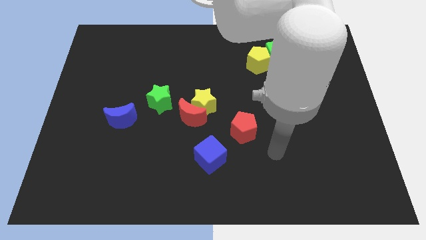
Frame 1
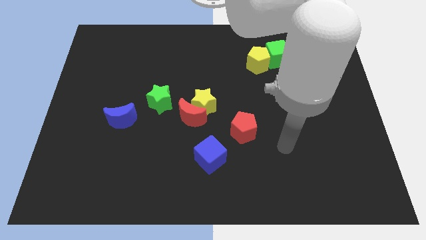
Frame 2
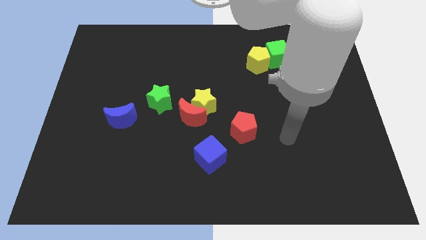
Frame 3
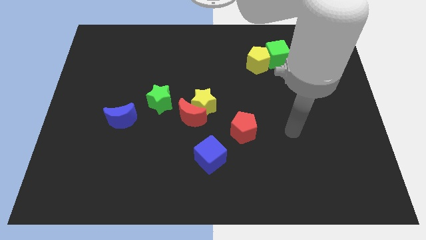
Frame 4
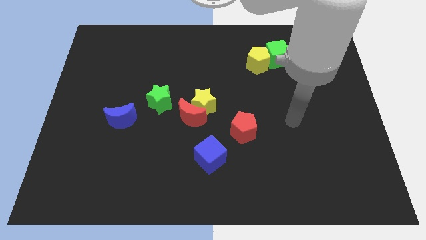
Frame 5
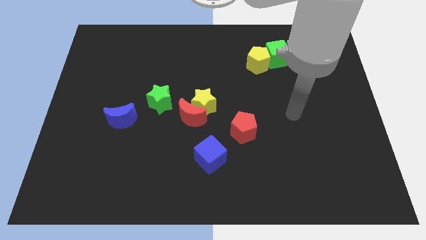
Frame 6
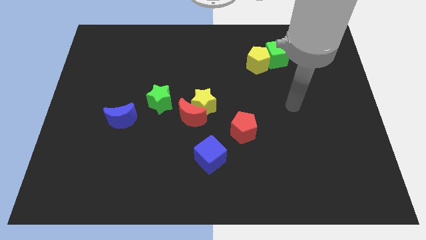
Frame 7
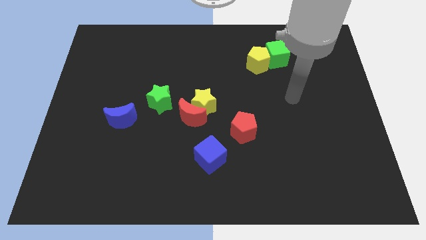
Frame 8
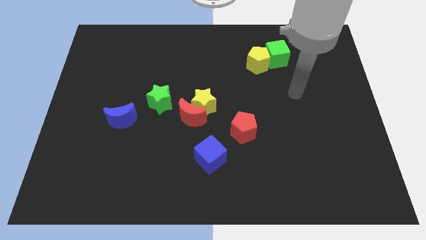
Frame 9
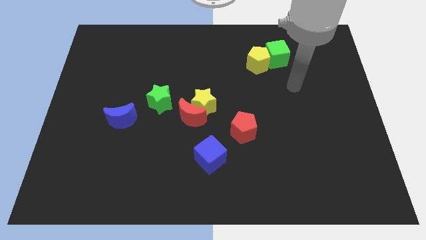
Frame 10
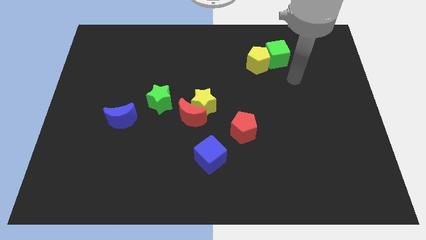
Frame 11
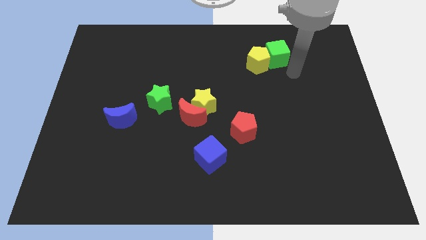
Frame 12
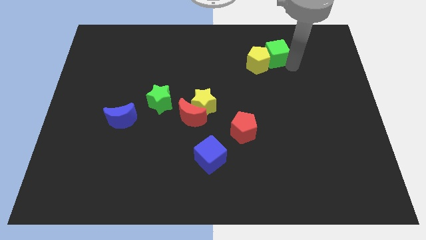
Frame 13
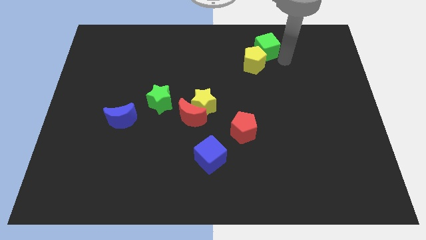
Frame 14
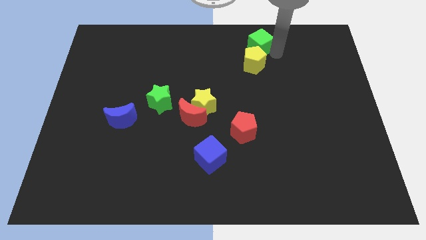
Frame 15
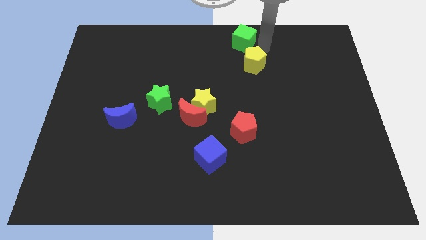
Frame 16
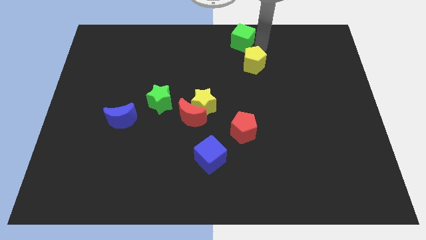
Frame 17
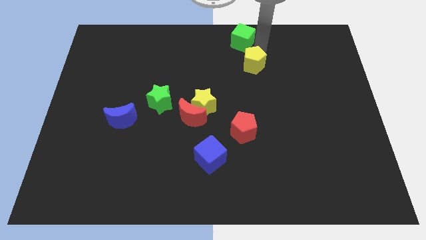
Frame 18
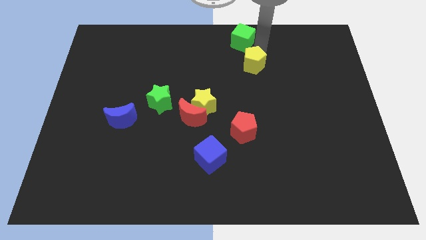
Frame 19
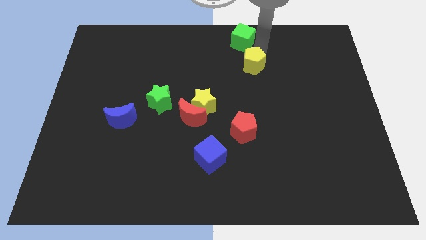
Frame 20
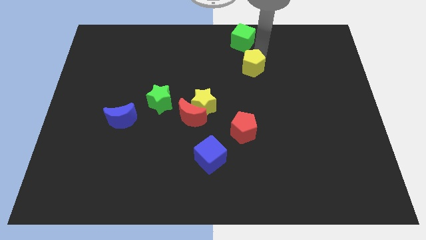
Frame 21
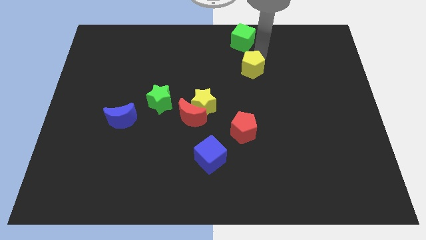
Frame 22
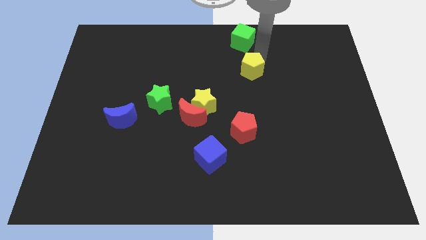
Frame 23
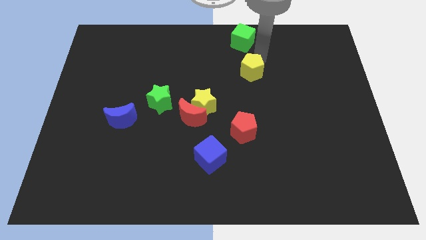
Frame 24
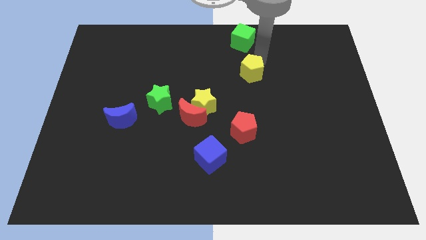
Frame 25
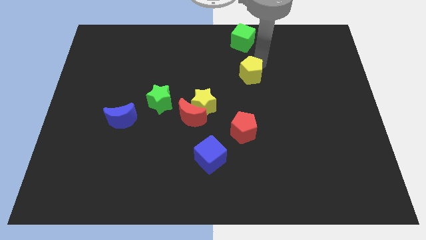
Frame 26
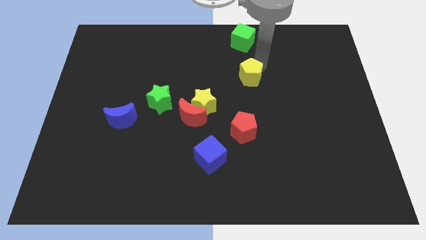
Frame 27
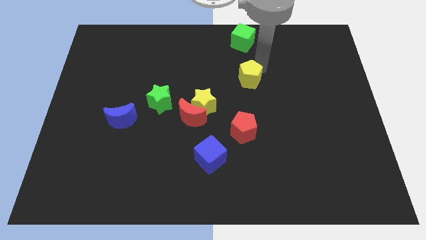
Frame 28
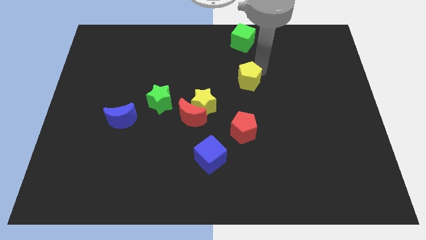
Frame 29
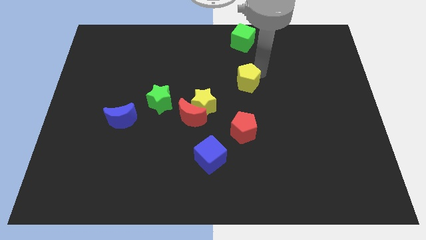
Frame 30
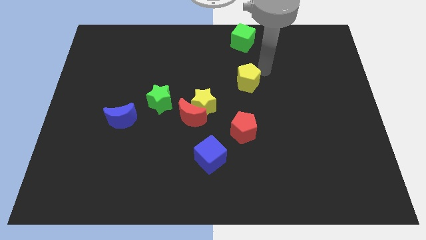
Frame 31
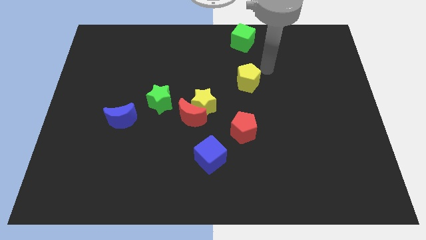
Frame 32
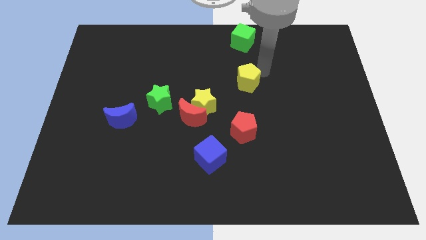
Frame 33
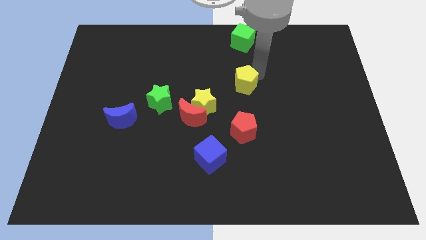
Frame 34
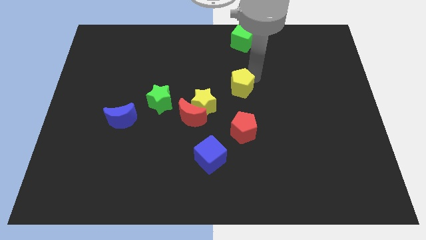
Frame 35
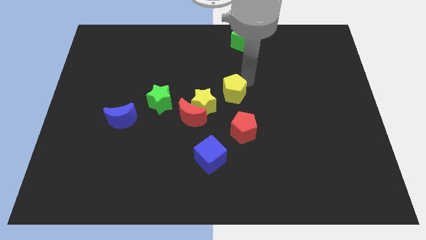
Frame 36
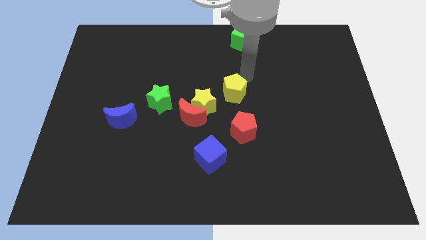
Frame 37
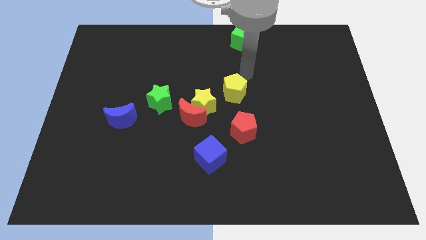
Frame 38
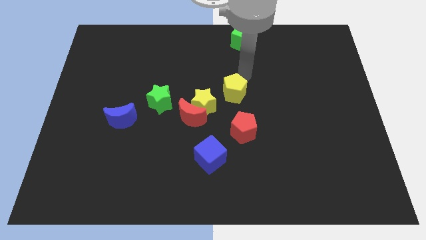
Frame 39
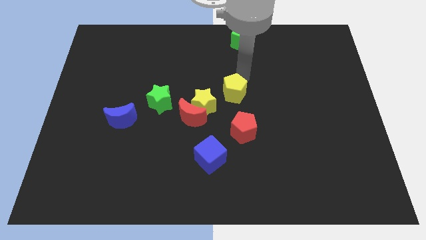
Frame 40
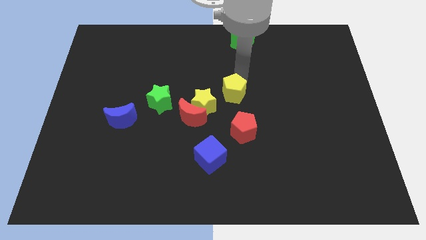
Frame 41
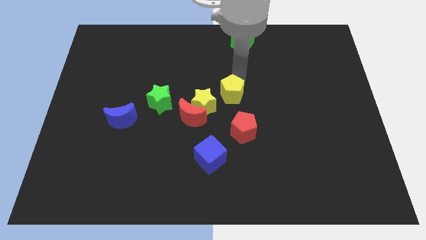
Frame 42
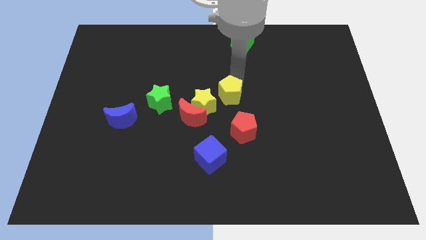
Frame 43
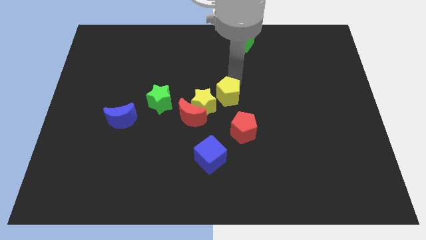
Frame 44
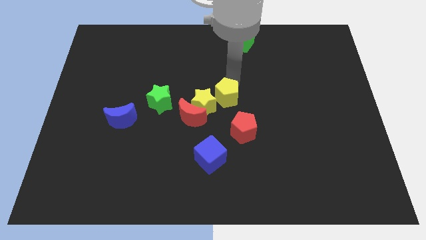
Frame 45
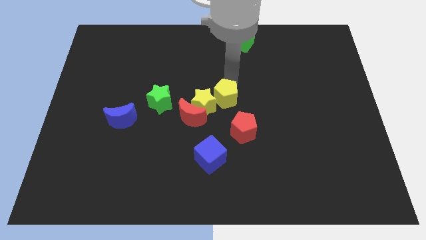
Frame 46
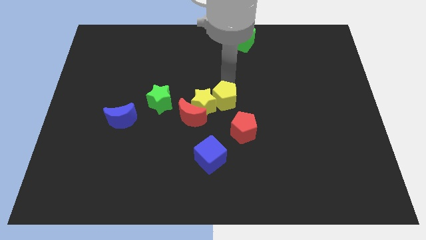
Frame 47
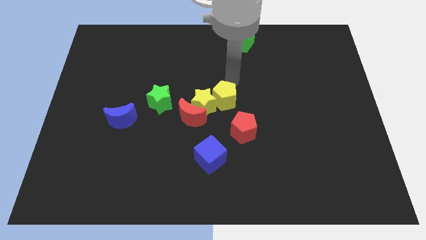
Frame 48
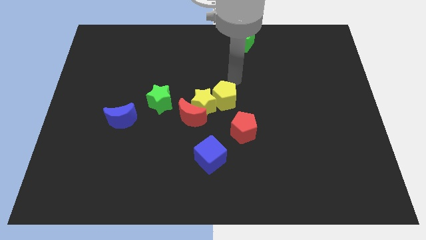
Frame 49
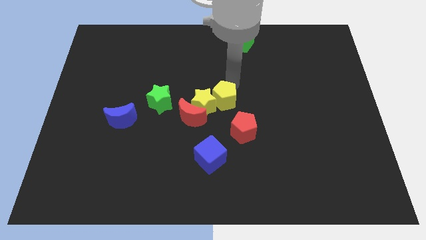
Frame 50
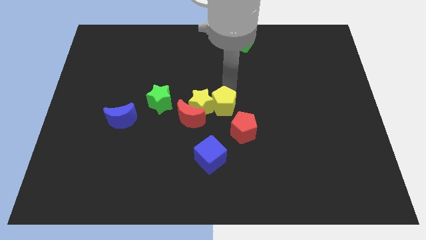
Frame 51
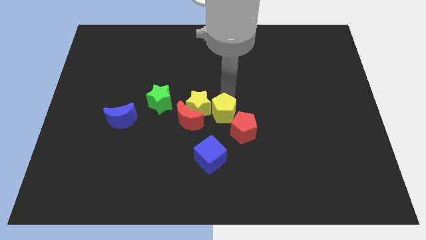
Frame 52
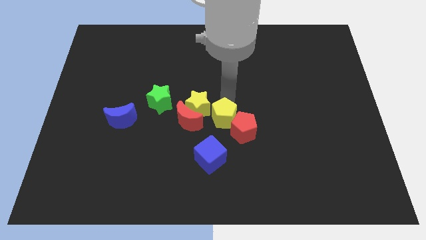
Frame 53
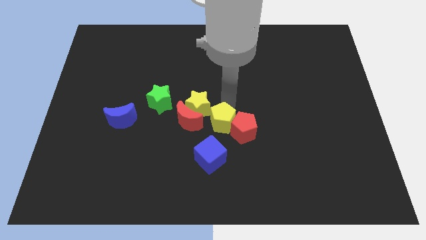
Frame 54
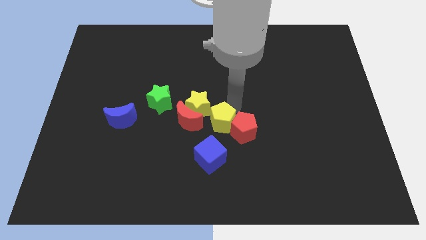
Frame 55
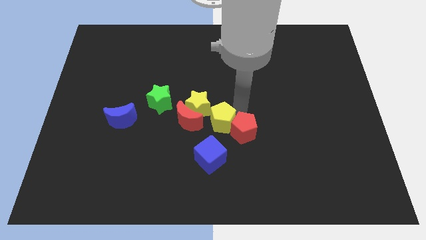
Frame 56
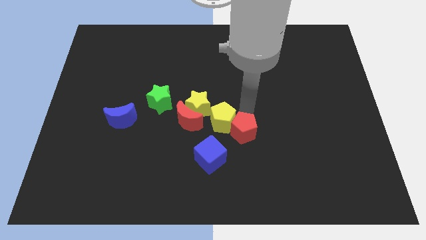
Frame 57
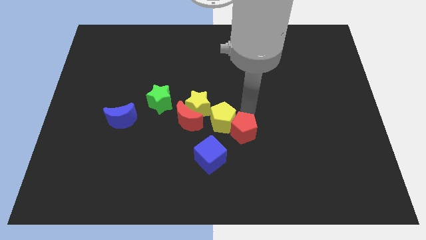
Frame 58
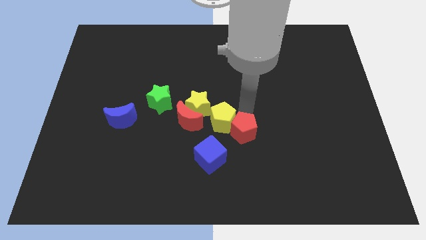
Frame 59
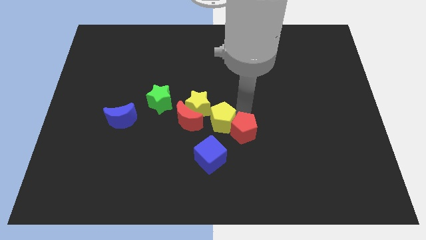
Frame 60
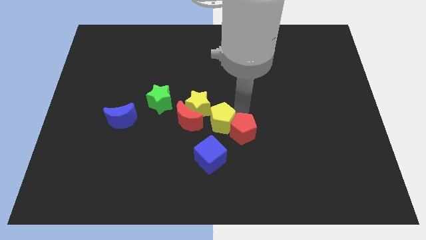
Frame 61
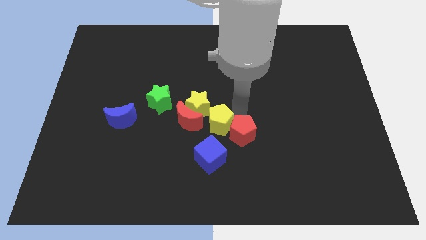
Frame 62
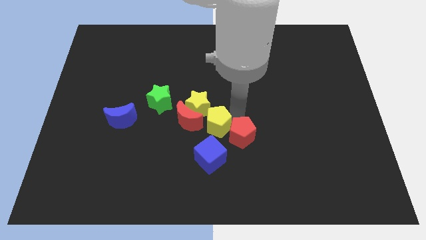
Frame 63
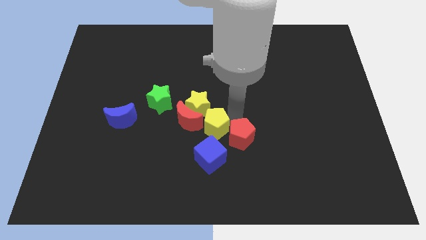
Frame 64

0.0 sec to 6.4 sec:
push the yellow pentagon diagonally down and left

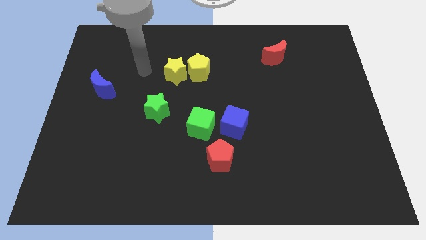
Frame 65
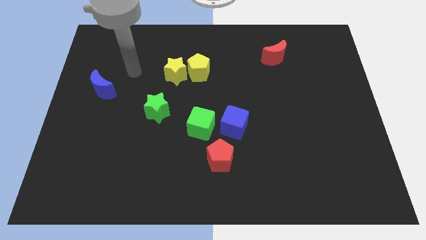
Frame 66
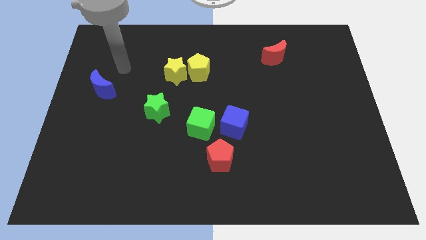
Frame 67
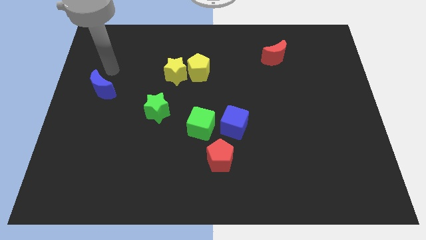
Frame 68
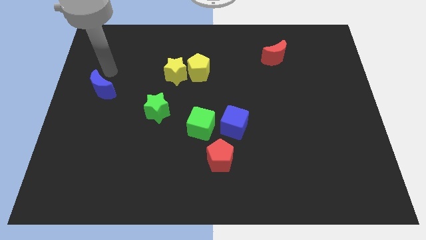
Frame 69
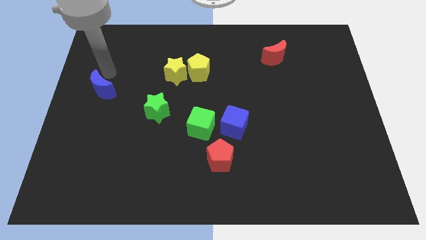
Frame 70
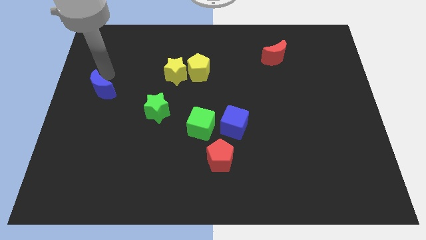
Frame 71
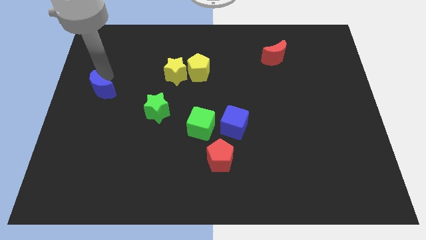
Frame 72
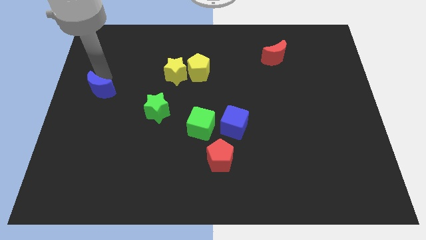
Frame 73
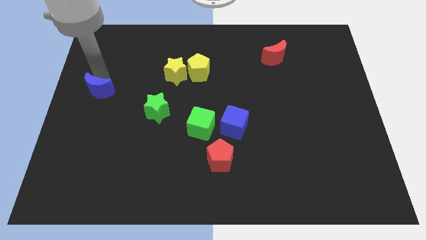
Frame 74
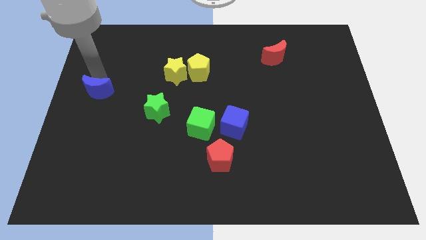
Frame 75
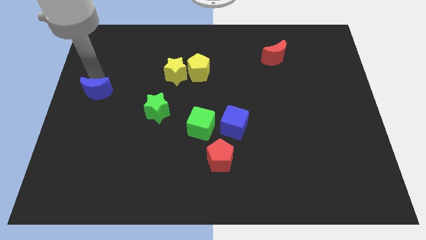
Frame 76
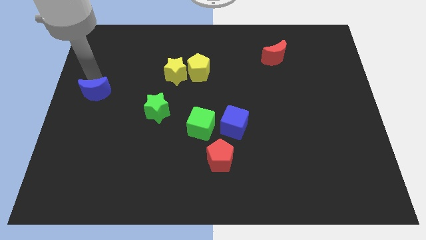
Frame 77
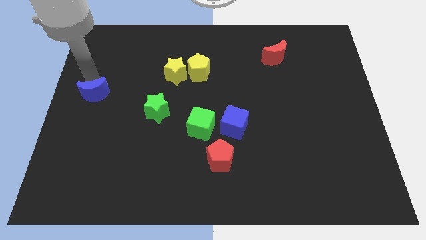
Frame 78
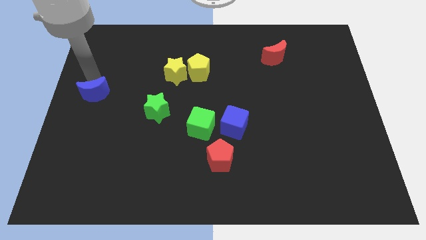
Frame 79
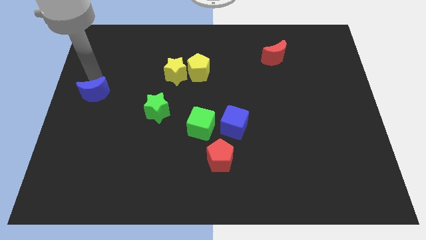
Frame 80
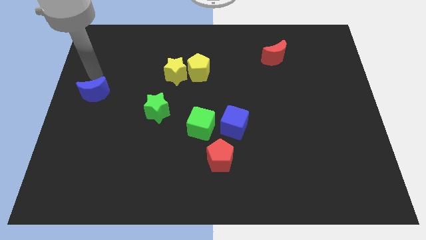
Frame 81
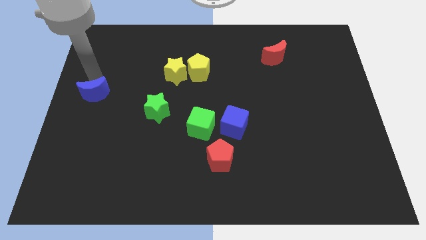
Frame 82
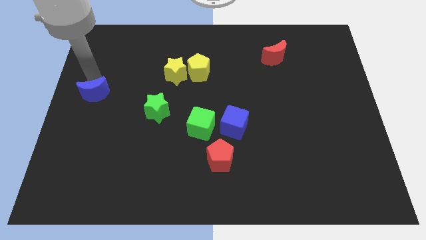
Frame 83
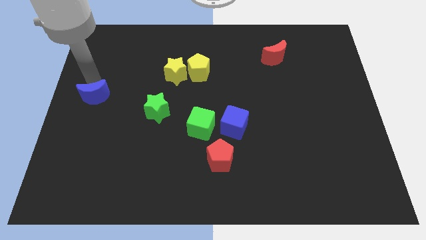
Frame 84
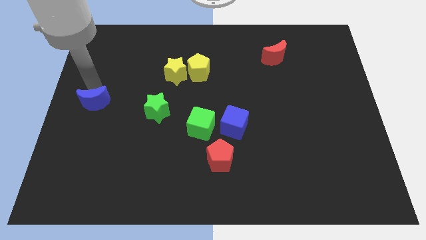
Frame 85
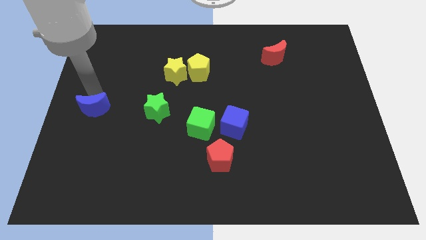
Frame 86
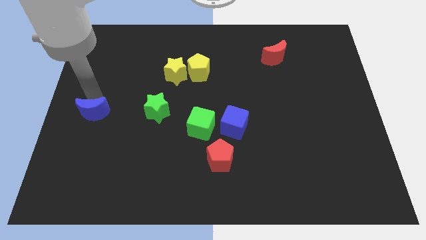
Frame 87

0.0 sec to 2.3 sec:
slightly move the blue moon downwards
